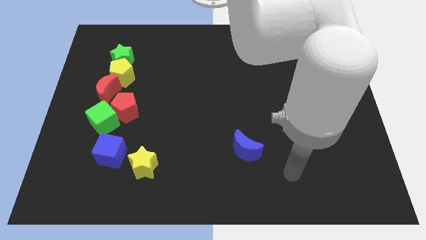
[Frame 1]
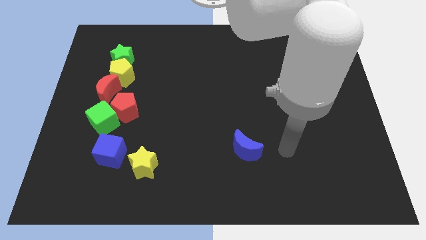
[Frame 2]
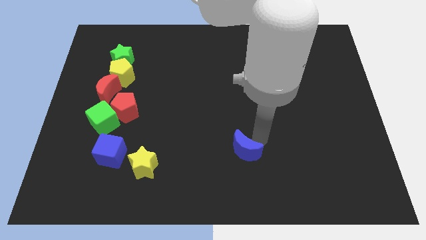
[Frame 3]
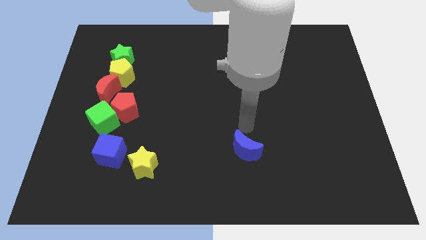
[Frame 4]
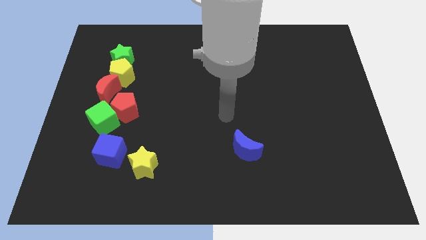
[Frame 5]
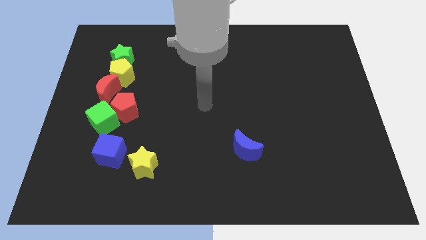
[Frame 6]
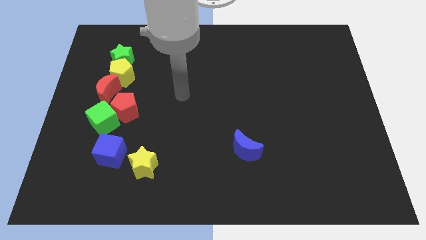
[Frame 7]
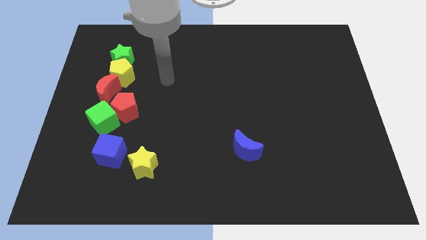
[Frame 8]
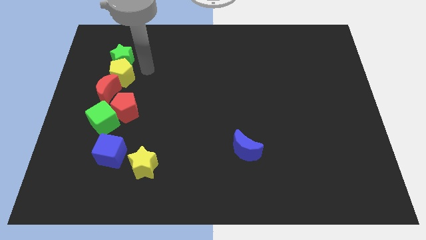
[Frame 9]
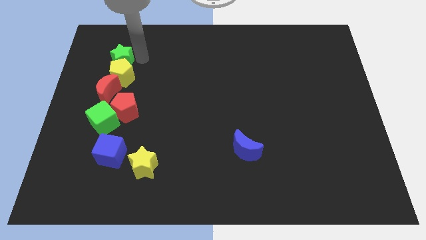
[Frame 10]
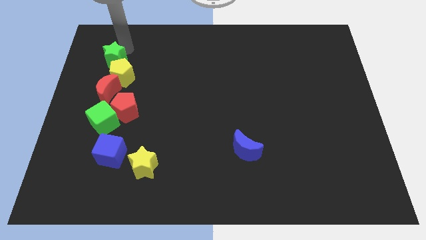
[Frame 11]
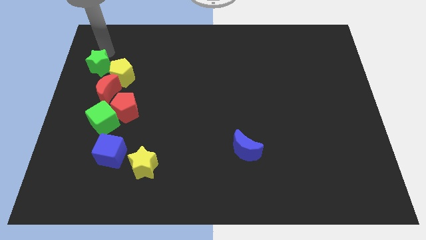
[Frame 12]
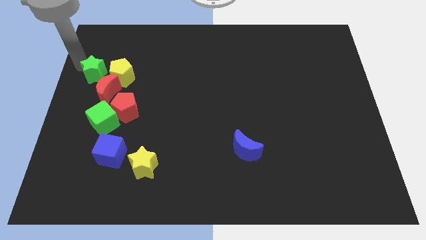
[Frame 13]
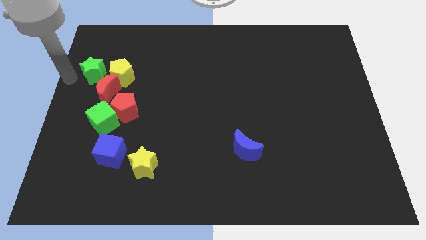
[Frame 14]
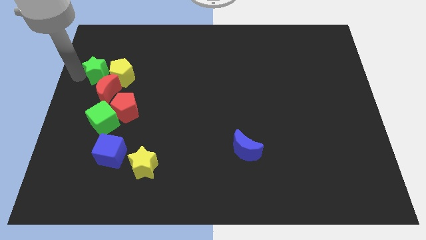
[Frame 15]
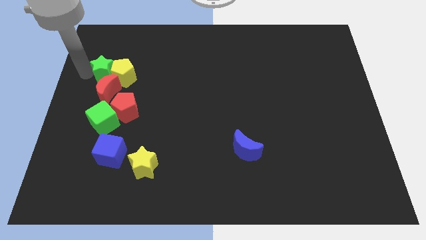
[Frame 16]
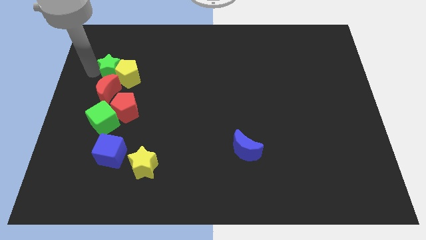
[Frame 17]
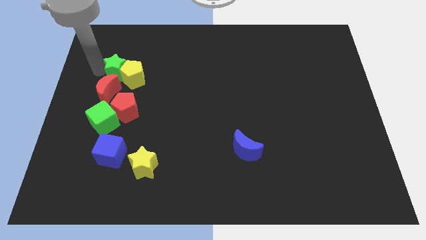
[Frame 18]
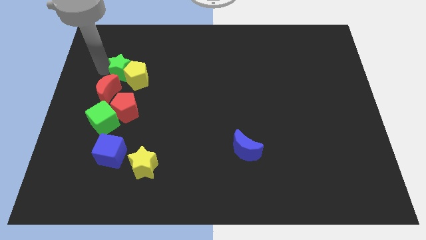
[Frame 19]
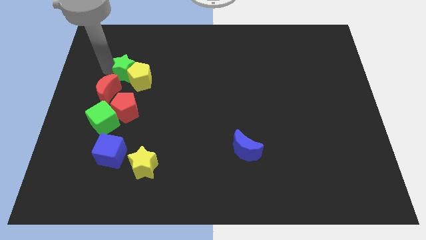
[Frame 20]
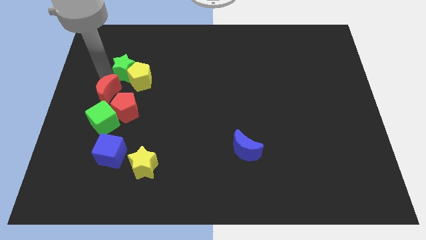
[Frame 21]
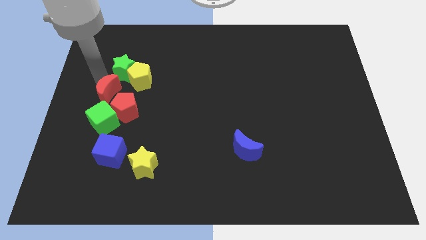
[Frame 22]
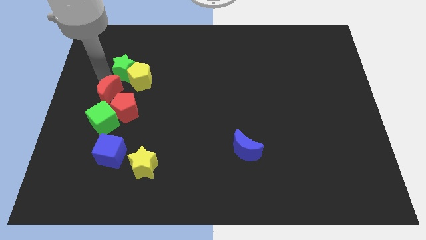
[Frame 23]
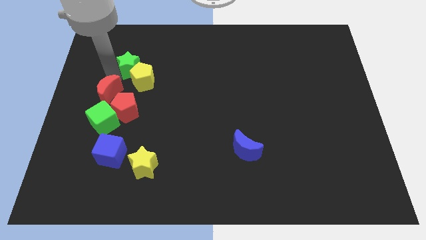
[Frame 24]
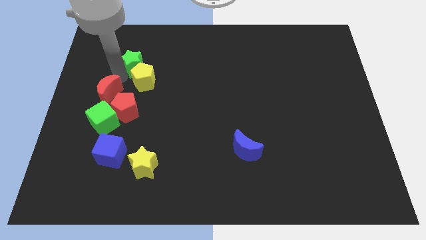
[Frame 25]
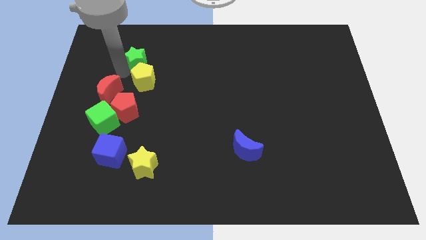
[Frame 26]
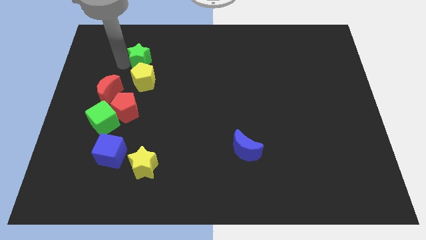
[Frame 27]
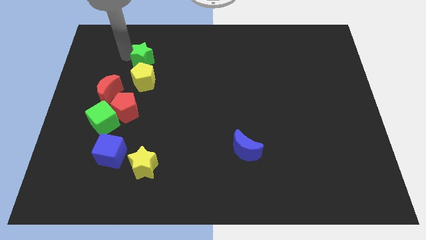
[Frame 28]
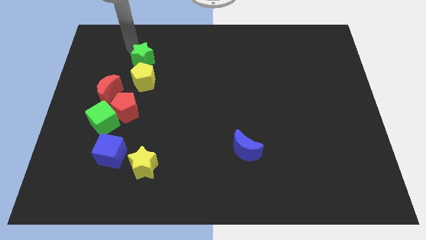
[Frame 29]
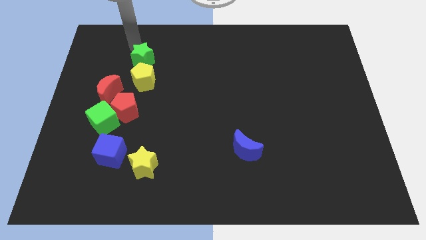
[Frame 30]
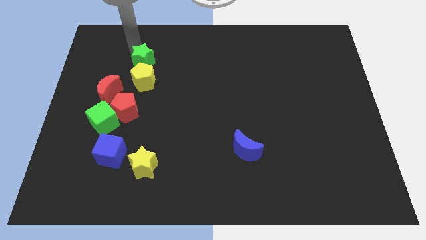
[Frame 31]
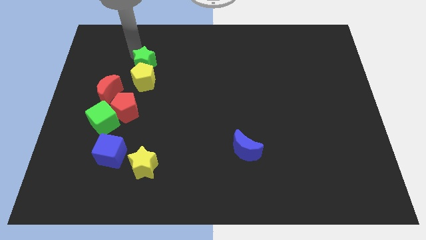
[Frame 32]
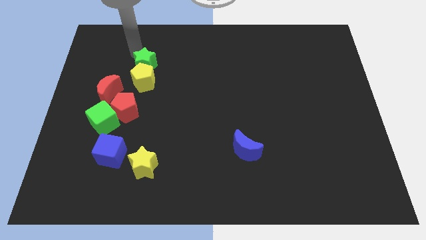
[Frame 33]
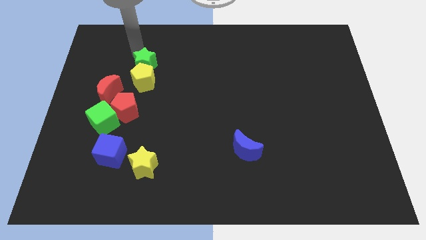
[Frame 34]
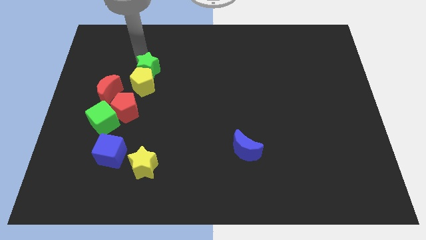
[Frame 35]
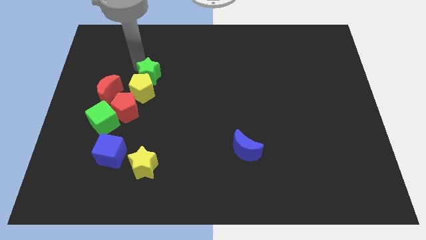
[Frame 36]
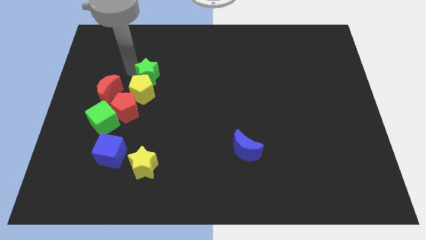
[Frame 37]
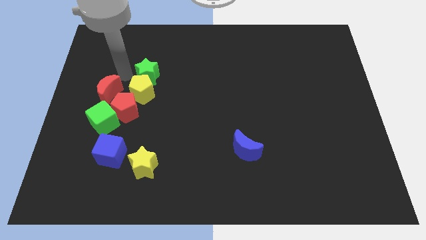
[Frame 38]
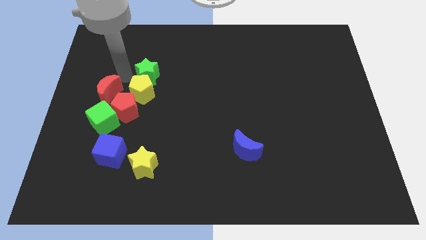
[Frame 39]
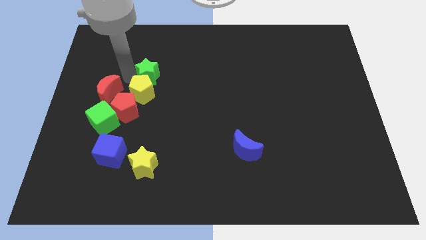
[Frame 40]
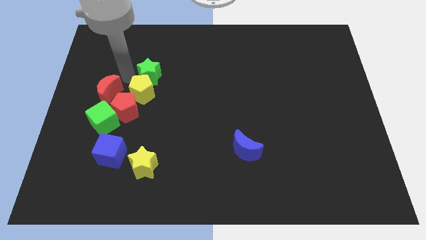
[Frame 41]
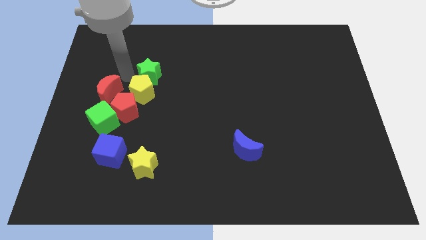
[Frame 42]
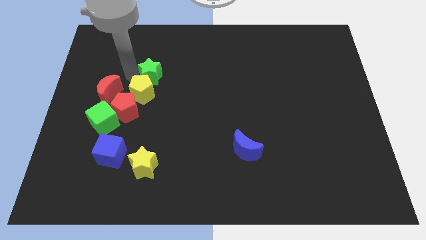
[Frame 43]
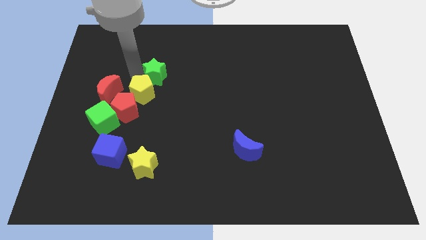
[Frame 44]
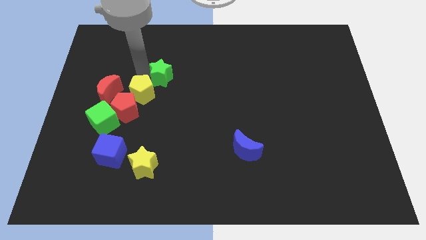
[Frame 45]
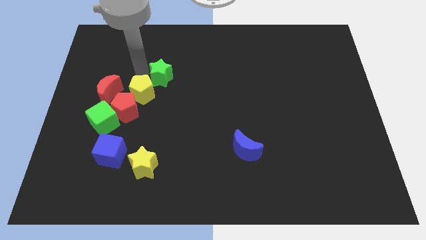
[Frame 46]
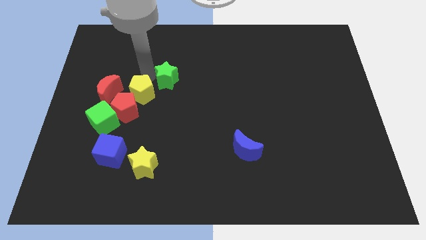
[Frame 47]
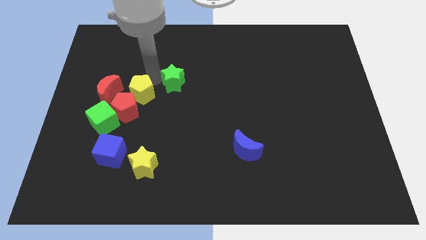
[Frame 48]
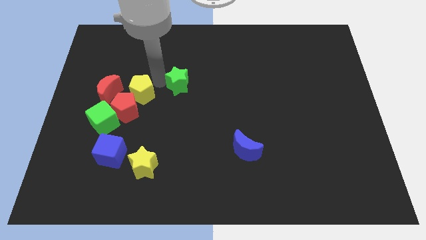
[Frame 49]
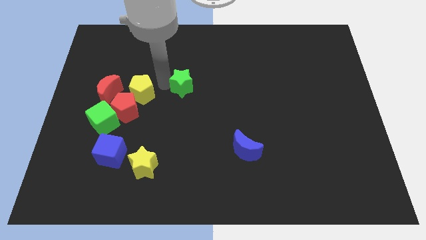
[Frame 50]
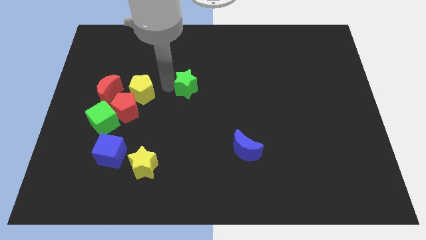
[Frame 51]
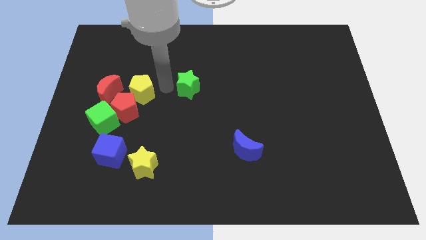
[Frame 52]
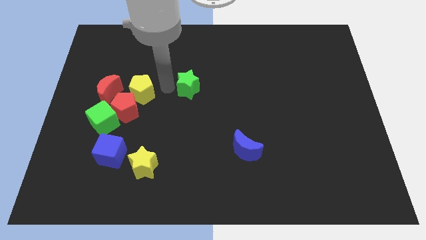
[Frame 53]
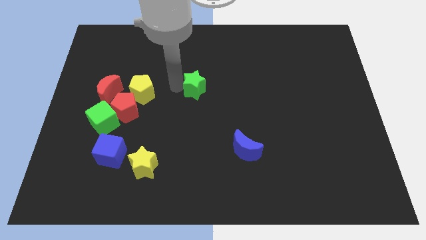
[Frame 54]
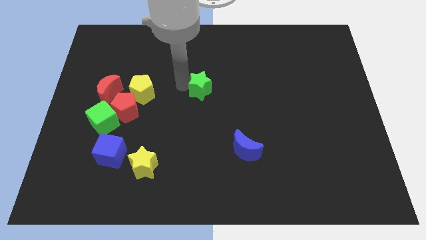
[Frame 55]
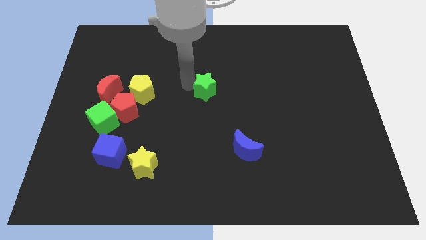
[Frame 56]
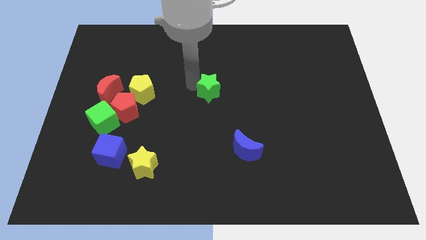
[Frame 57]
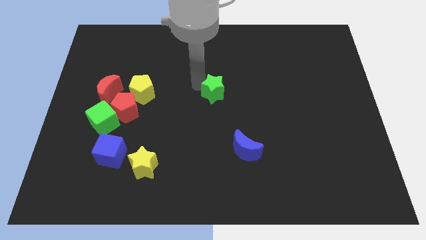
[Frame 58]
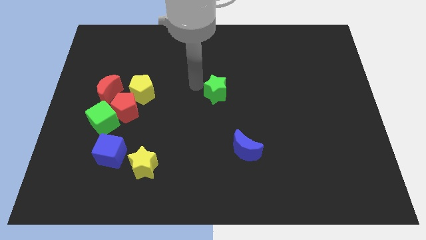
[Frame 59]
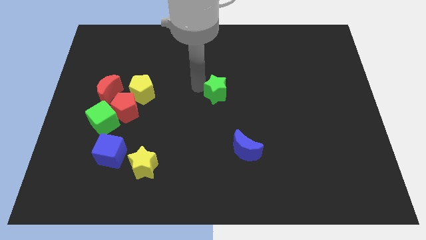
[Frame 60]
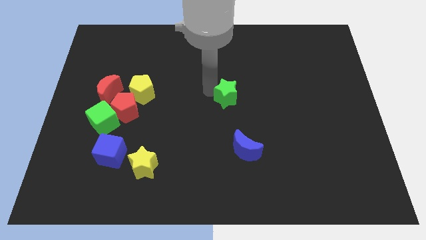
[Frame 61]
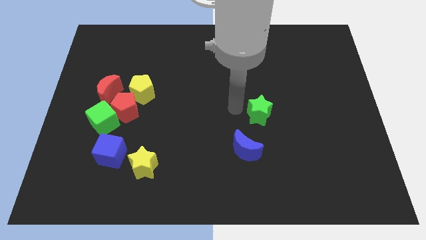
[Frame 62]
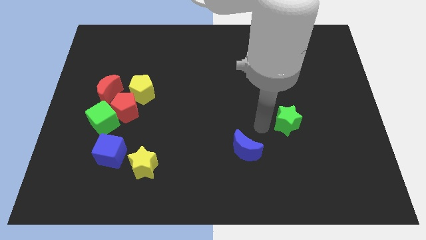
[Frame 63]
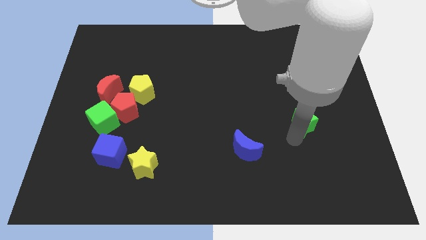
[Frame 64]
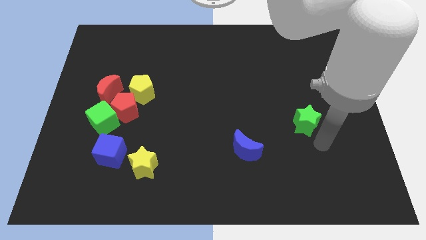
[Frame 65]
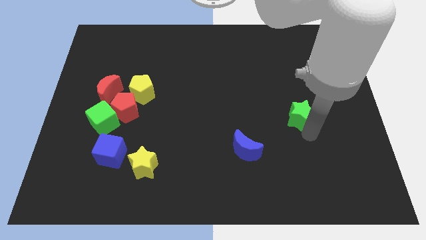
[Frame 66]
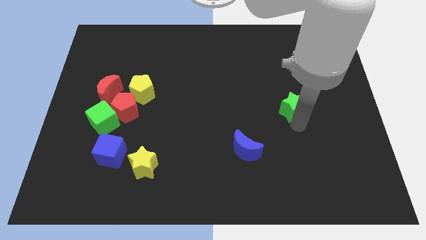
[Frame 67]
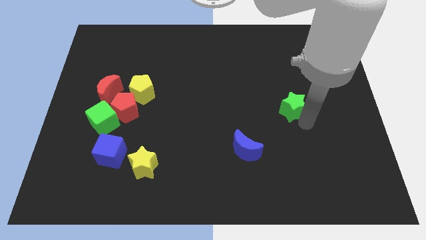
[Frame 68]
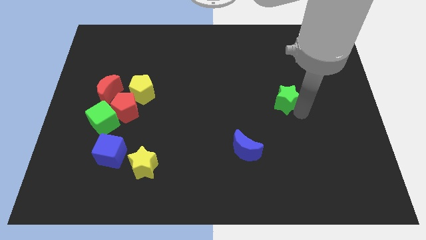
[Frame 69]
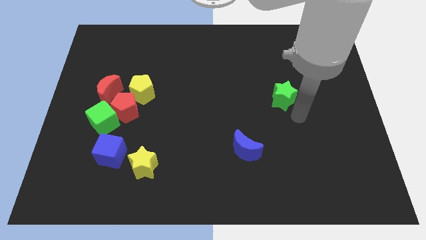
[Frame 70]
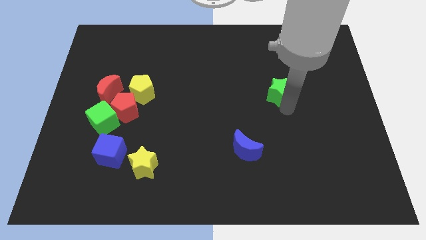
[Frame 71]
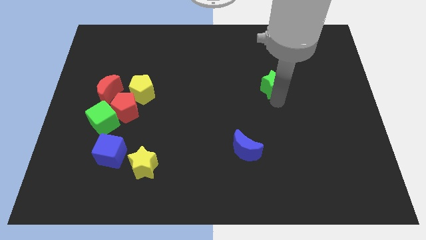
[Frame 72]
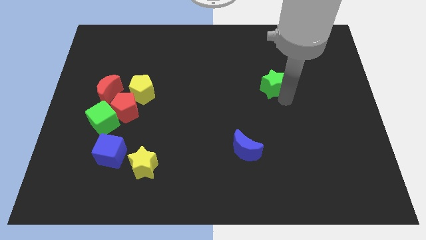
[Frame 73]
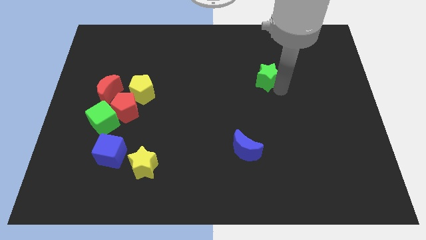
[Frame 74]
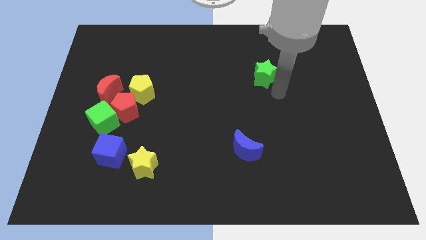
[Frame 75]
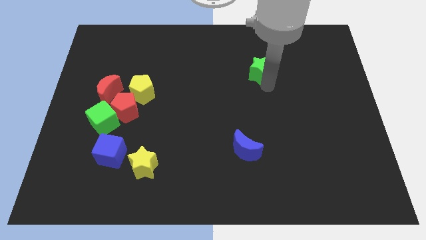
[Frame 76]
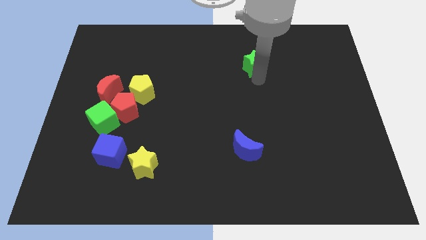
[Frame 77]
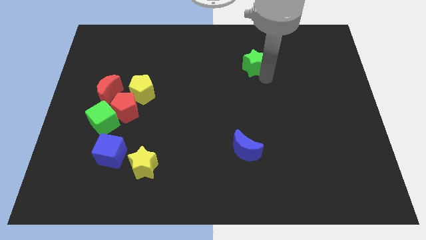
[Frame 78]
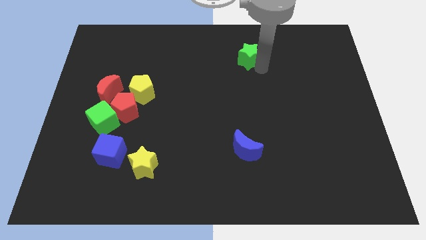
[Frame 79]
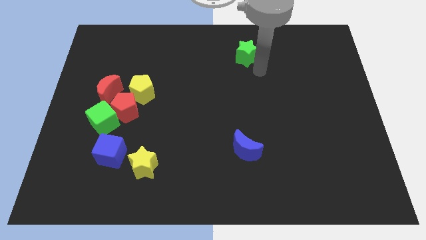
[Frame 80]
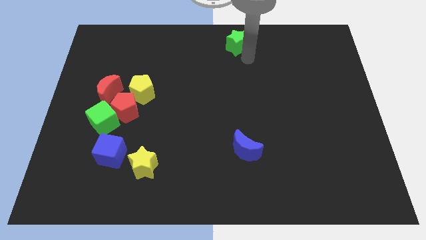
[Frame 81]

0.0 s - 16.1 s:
put the green star to the top side
